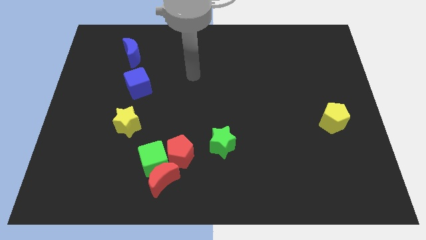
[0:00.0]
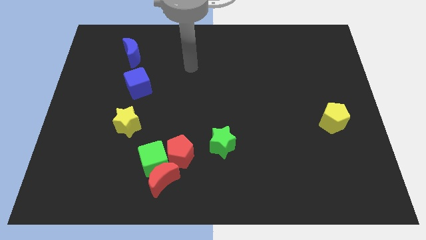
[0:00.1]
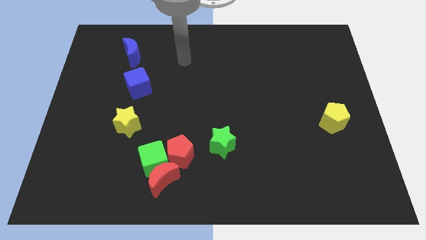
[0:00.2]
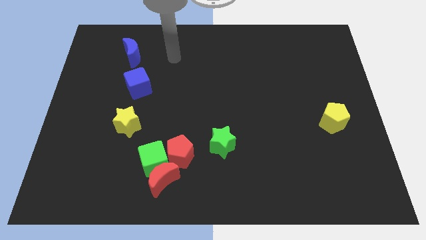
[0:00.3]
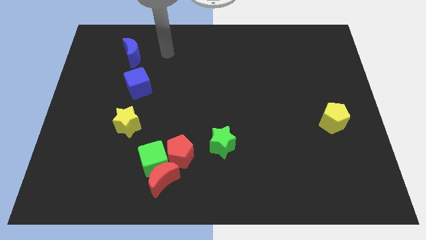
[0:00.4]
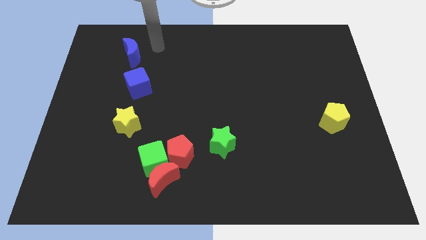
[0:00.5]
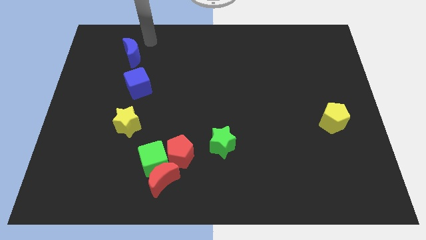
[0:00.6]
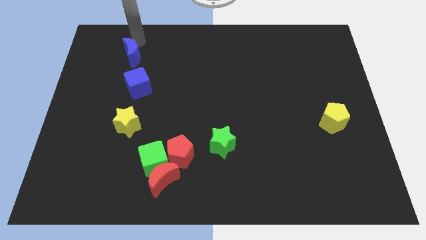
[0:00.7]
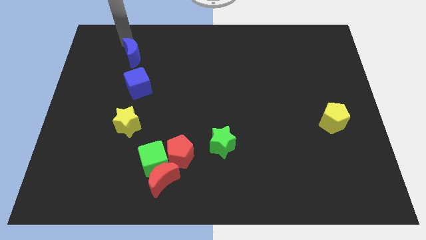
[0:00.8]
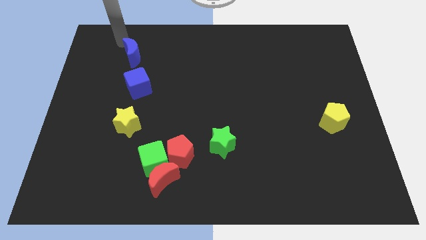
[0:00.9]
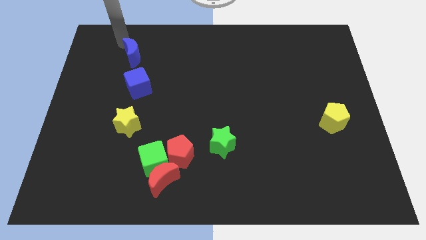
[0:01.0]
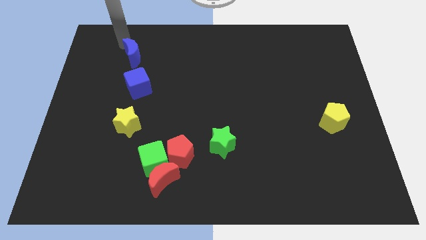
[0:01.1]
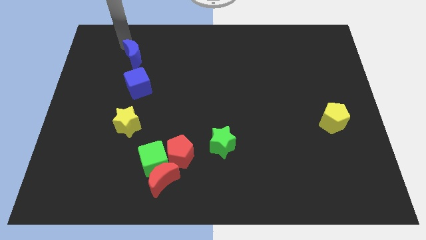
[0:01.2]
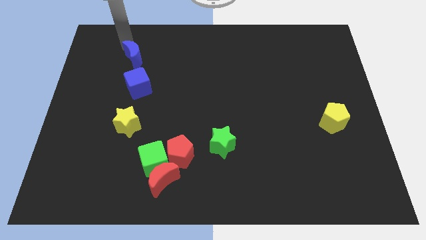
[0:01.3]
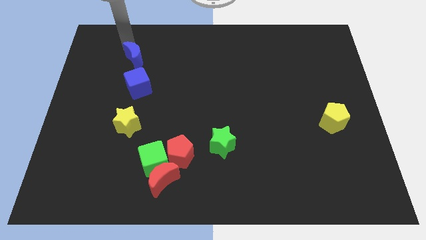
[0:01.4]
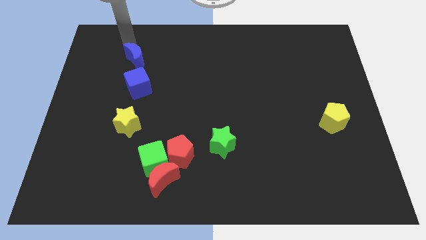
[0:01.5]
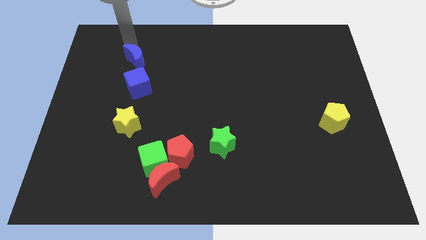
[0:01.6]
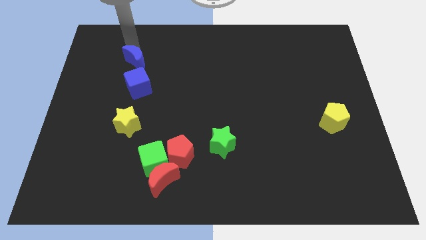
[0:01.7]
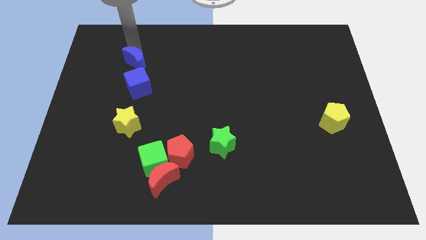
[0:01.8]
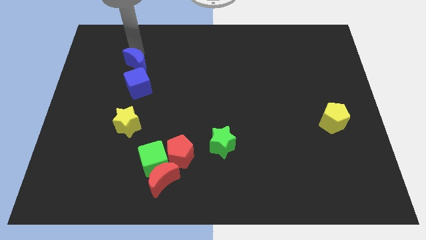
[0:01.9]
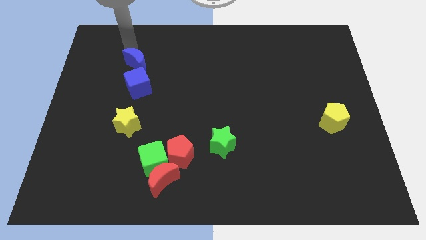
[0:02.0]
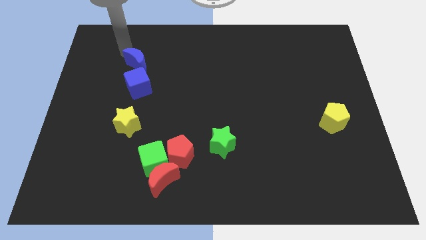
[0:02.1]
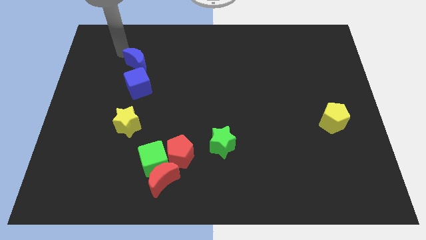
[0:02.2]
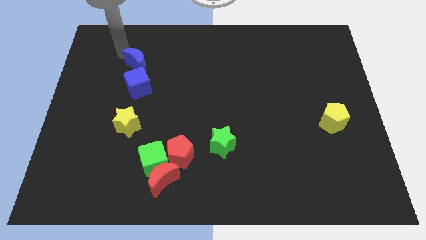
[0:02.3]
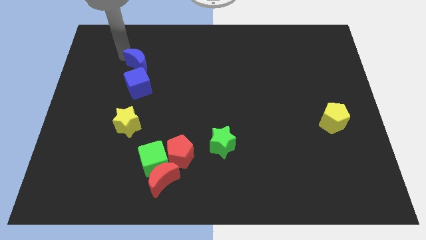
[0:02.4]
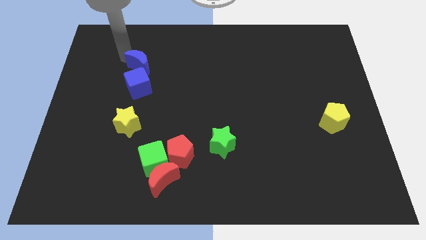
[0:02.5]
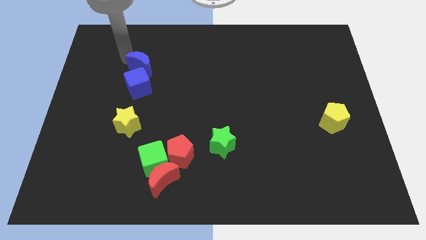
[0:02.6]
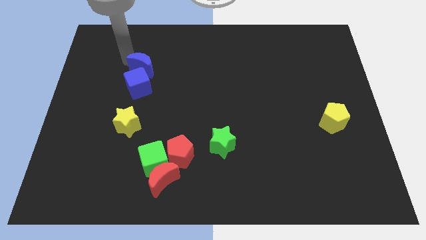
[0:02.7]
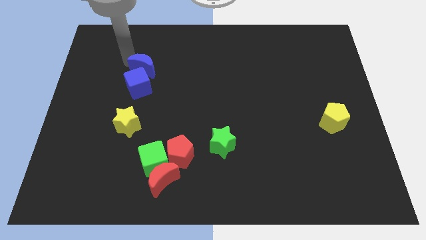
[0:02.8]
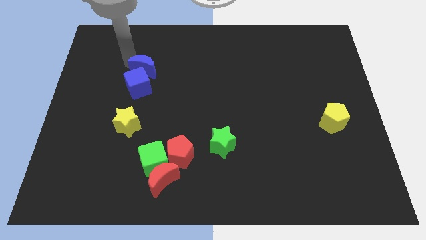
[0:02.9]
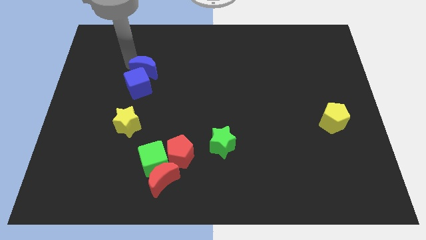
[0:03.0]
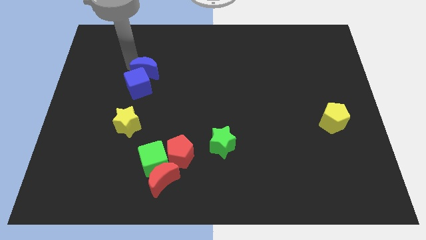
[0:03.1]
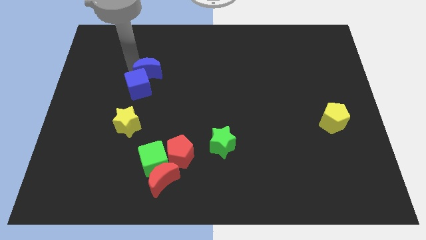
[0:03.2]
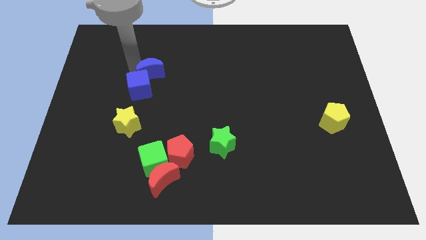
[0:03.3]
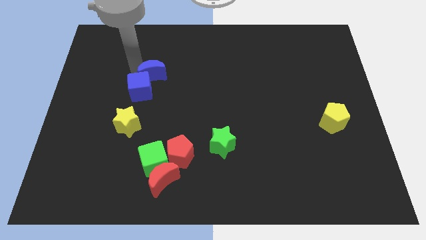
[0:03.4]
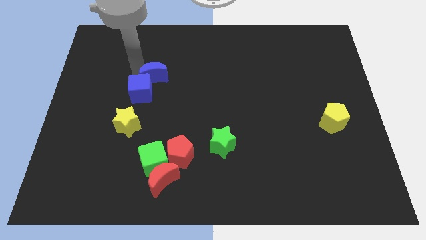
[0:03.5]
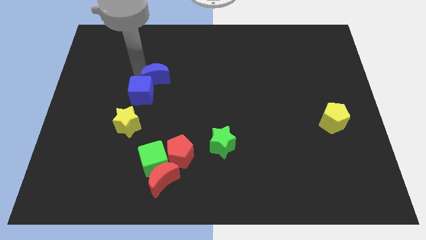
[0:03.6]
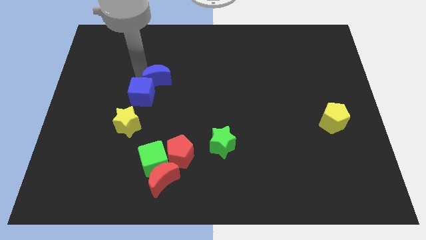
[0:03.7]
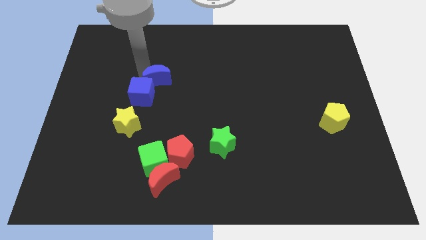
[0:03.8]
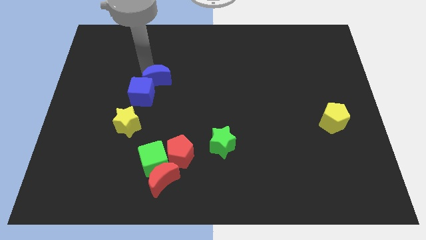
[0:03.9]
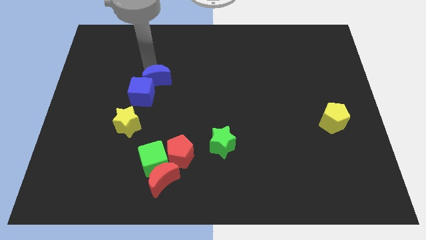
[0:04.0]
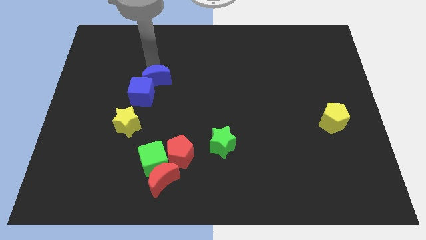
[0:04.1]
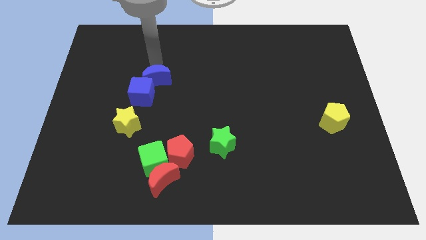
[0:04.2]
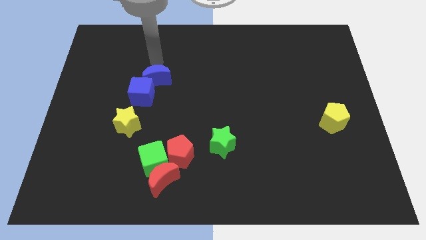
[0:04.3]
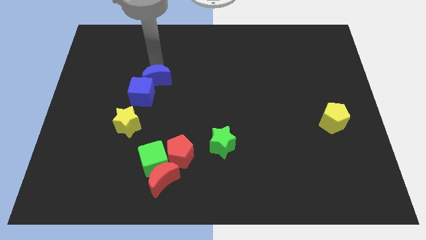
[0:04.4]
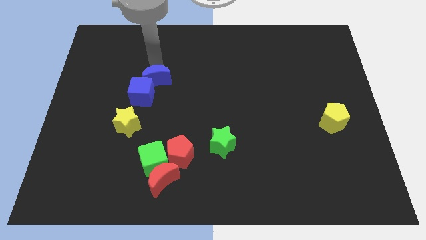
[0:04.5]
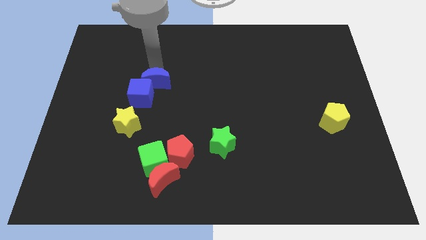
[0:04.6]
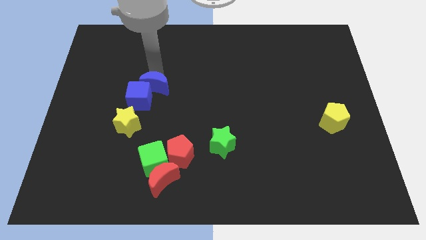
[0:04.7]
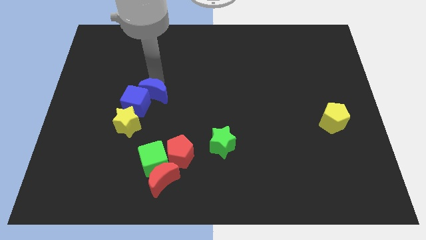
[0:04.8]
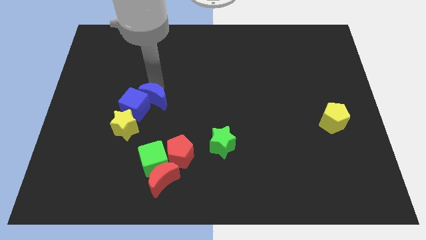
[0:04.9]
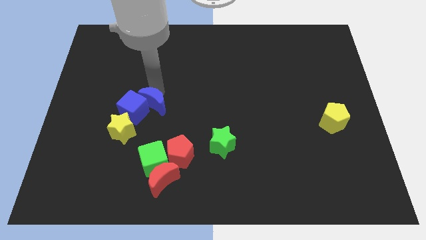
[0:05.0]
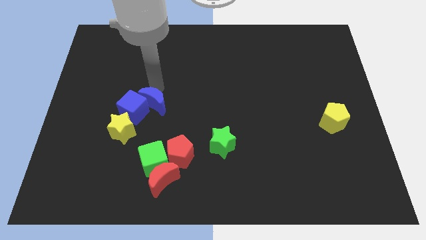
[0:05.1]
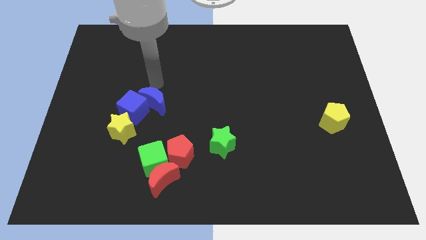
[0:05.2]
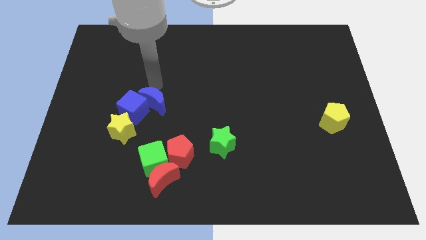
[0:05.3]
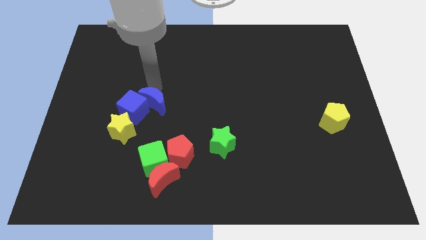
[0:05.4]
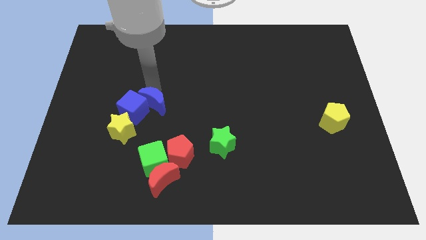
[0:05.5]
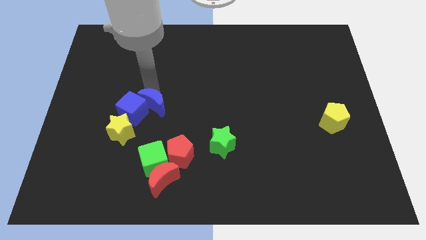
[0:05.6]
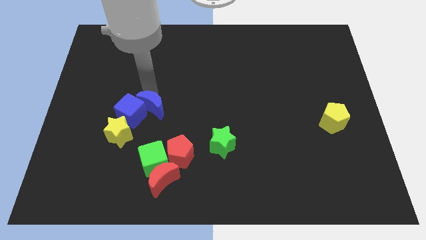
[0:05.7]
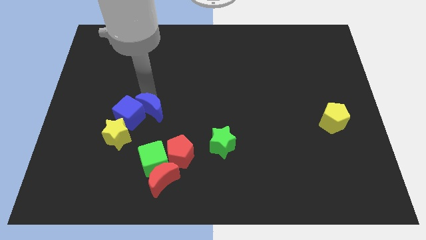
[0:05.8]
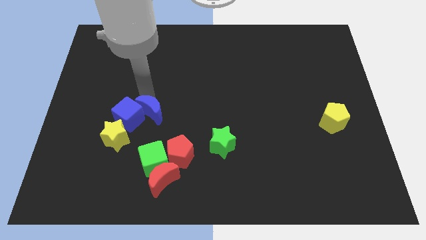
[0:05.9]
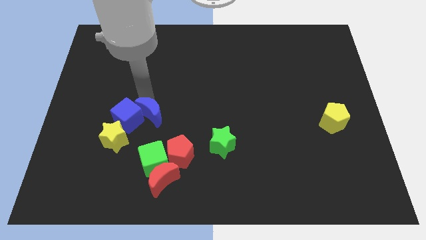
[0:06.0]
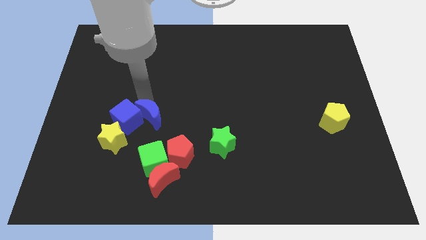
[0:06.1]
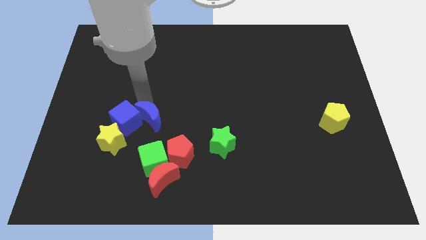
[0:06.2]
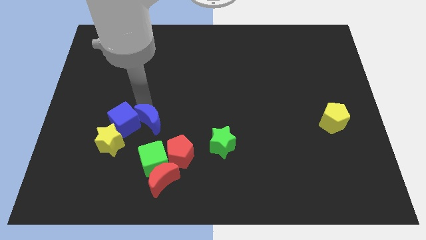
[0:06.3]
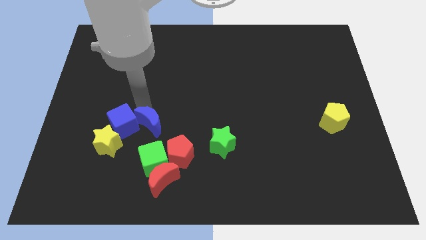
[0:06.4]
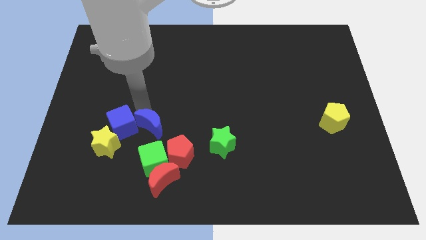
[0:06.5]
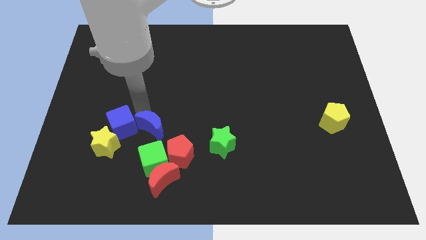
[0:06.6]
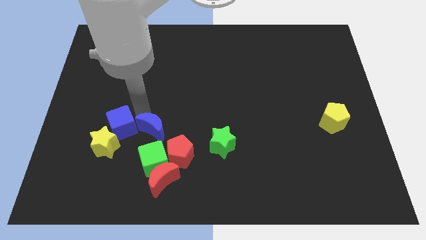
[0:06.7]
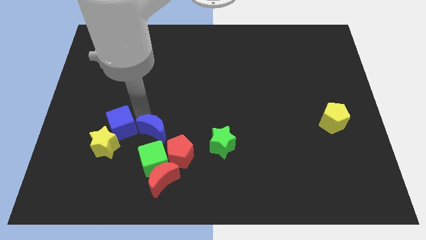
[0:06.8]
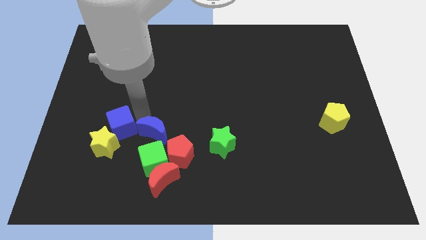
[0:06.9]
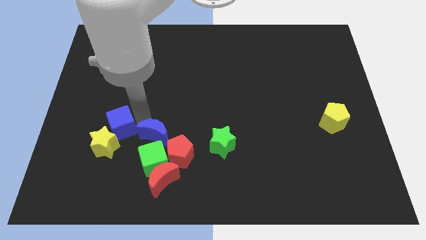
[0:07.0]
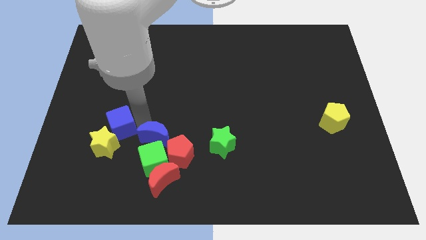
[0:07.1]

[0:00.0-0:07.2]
put the blue moon to the green cube
